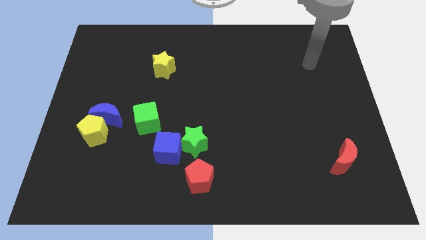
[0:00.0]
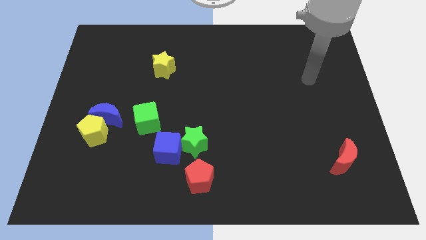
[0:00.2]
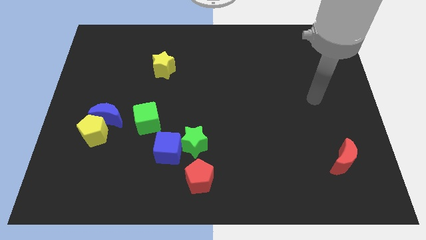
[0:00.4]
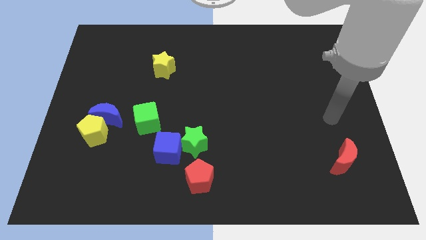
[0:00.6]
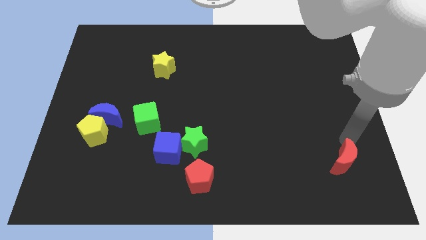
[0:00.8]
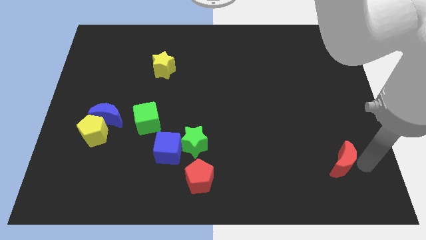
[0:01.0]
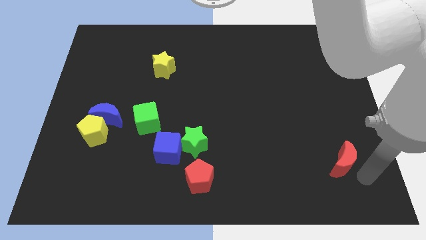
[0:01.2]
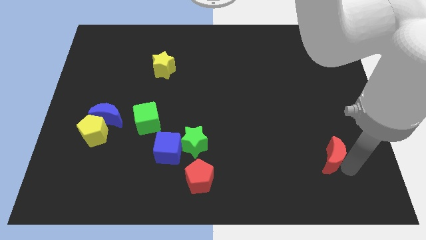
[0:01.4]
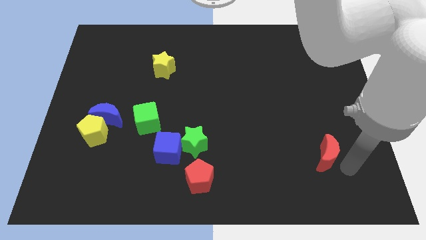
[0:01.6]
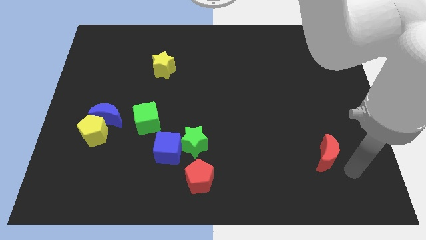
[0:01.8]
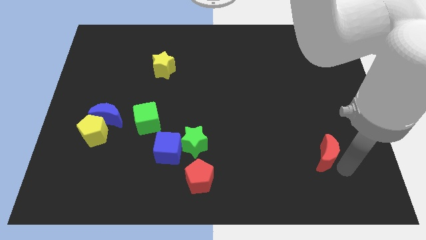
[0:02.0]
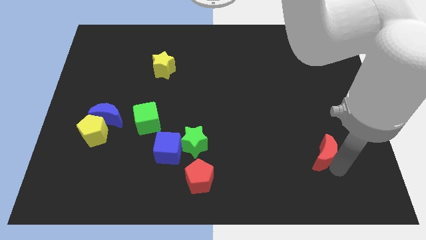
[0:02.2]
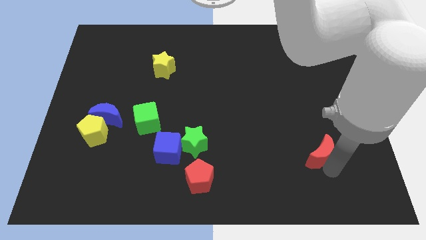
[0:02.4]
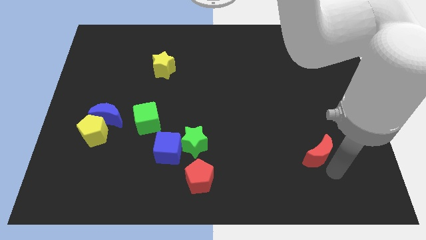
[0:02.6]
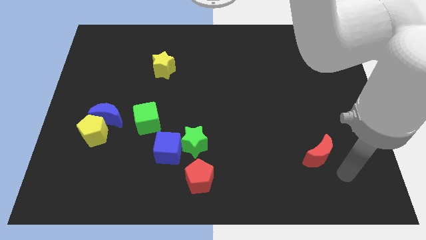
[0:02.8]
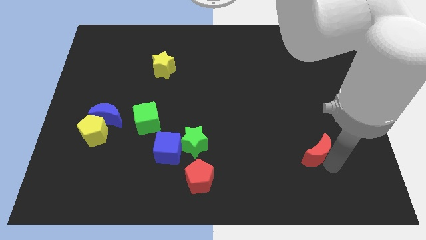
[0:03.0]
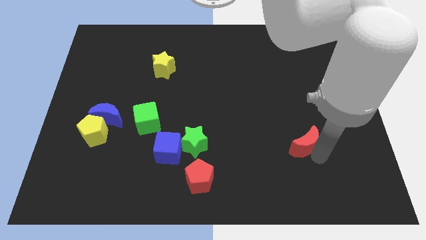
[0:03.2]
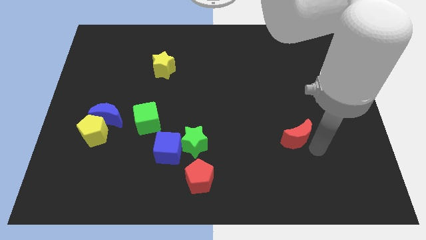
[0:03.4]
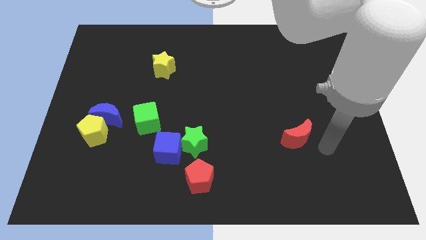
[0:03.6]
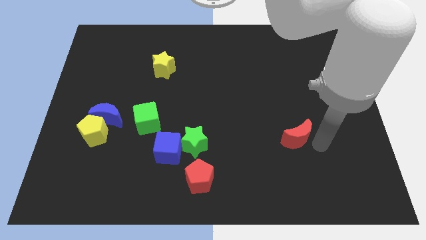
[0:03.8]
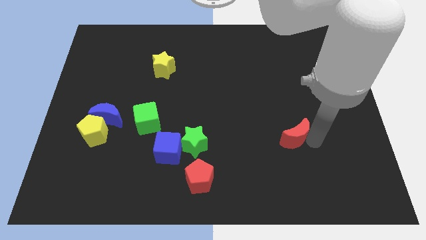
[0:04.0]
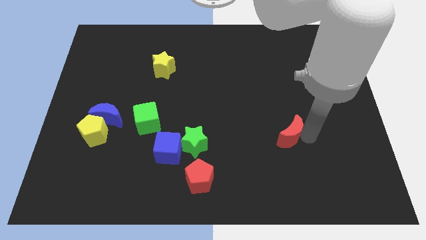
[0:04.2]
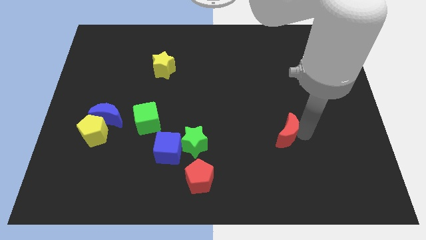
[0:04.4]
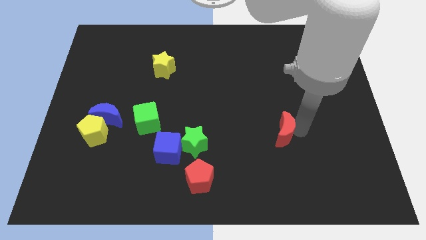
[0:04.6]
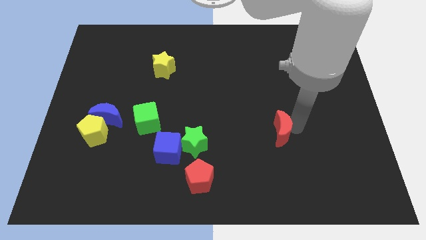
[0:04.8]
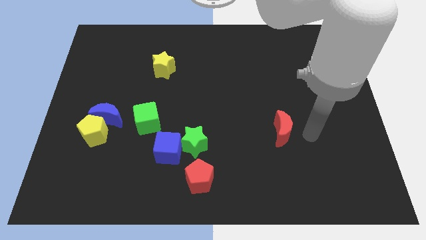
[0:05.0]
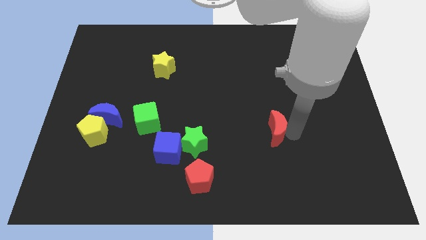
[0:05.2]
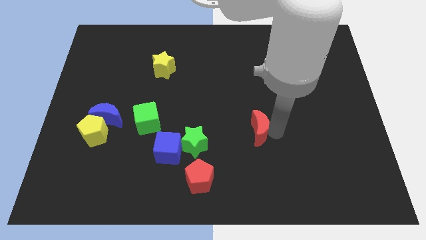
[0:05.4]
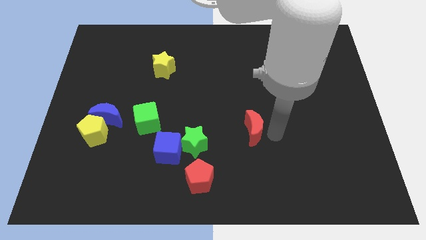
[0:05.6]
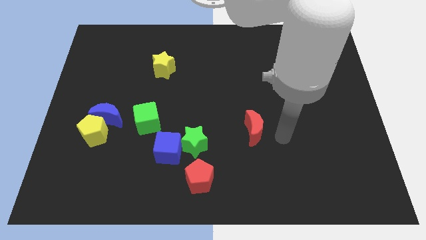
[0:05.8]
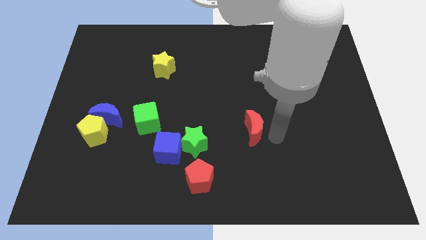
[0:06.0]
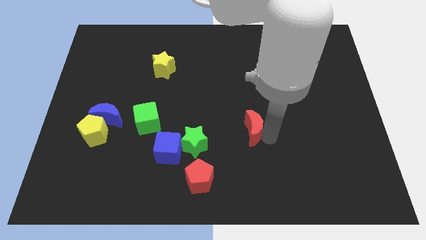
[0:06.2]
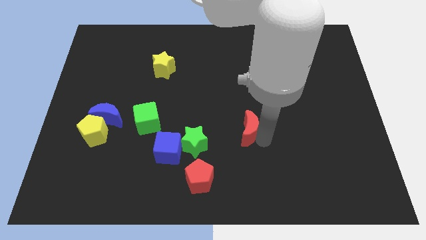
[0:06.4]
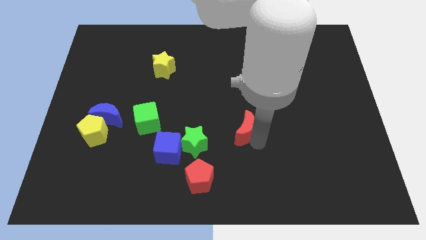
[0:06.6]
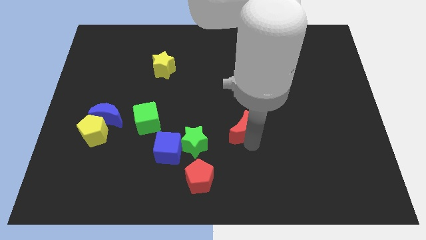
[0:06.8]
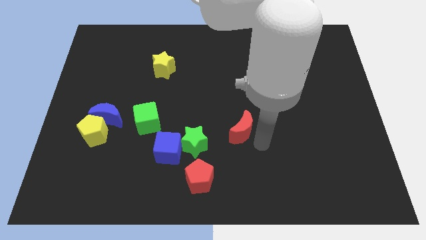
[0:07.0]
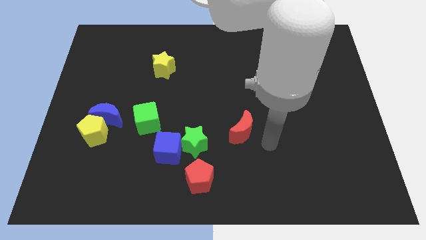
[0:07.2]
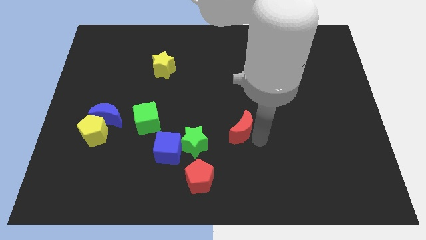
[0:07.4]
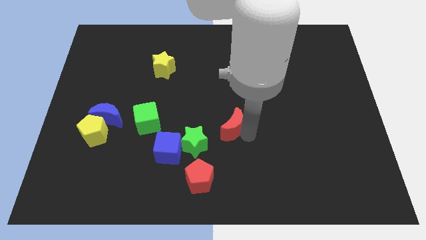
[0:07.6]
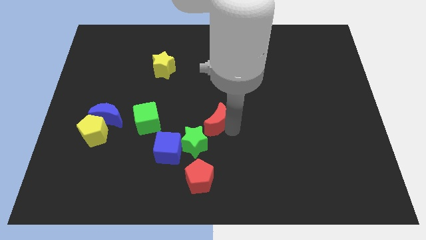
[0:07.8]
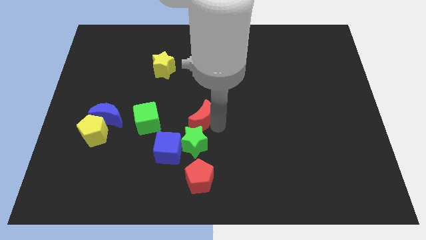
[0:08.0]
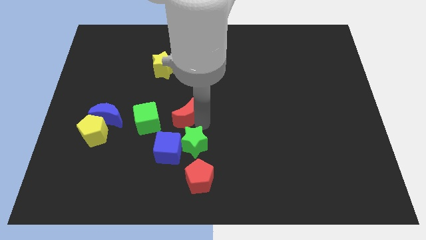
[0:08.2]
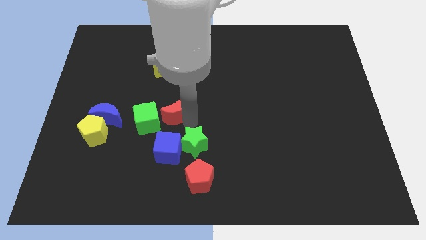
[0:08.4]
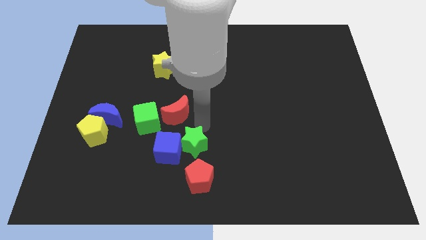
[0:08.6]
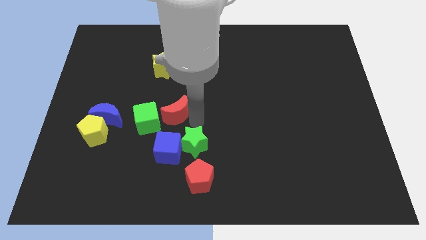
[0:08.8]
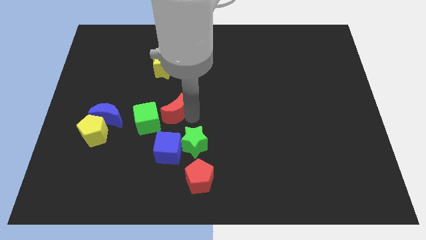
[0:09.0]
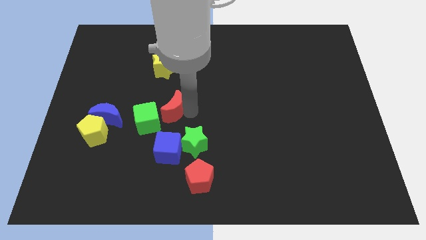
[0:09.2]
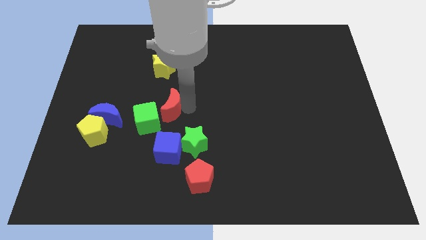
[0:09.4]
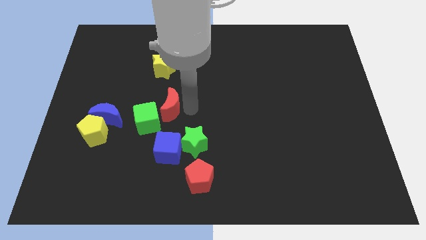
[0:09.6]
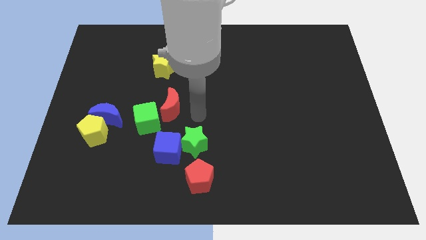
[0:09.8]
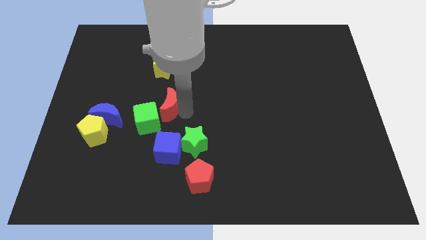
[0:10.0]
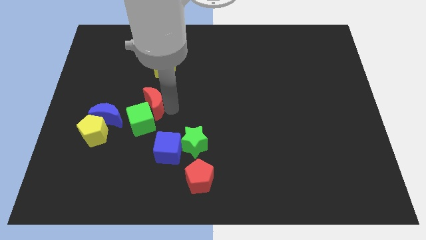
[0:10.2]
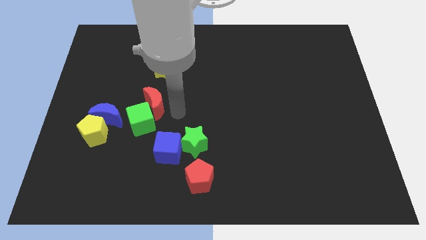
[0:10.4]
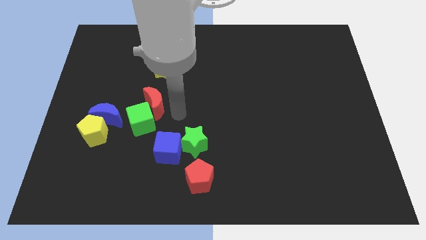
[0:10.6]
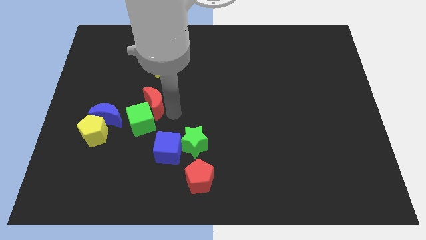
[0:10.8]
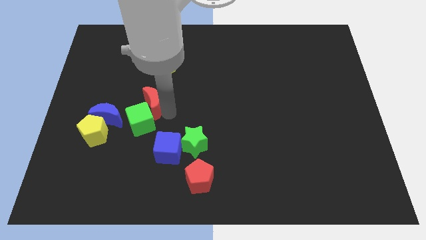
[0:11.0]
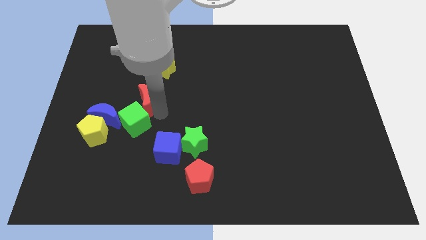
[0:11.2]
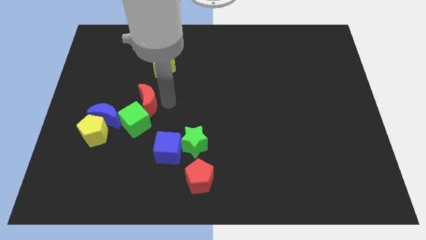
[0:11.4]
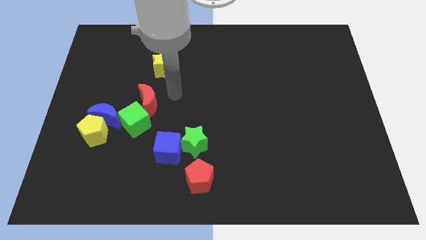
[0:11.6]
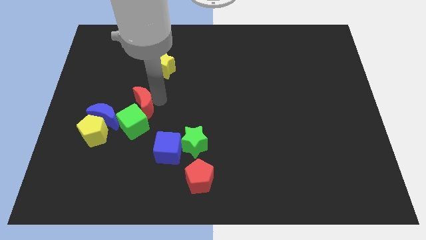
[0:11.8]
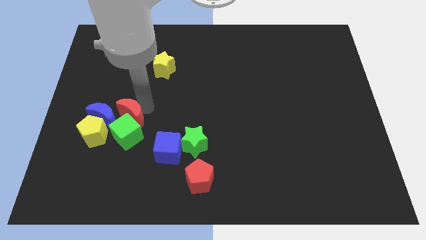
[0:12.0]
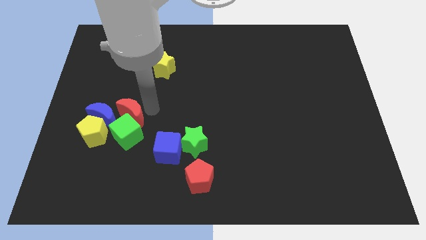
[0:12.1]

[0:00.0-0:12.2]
slide the red moon close to the blue moon
